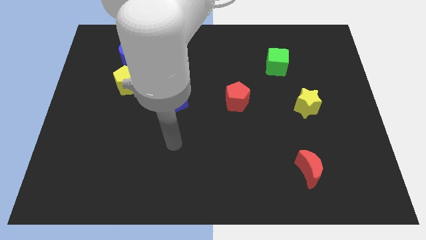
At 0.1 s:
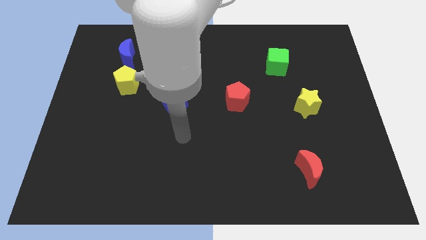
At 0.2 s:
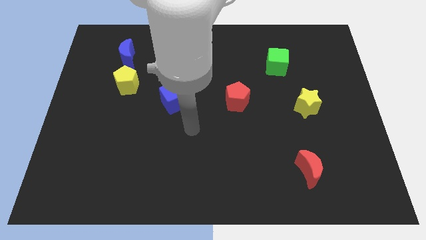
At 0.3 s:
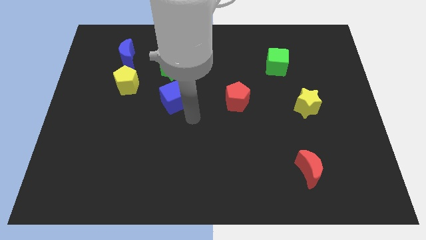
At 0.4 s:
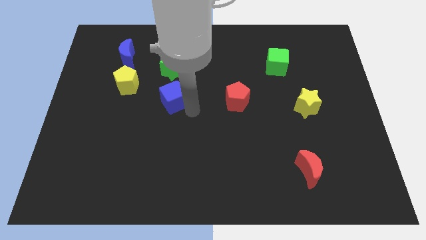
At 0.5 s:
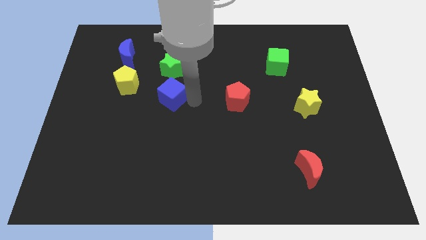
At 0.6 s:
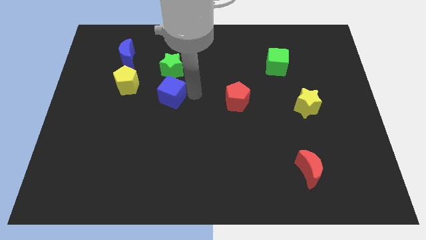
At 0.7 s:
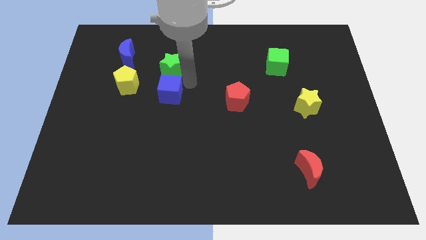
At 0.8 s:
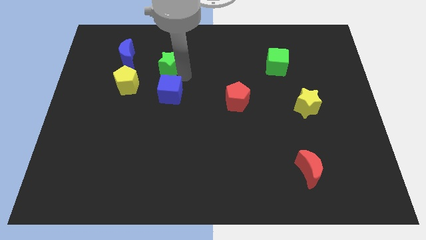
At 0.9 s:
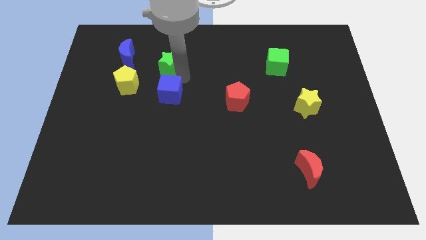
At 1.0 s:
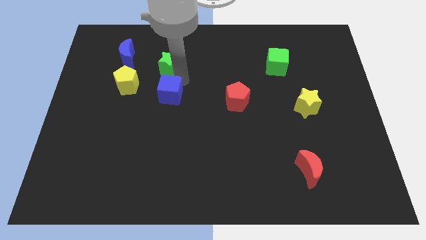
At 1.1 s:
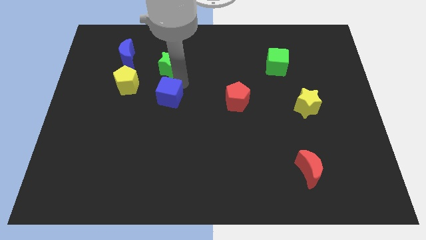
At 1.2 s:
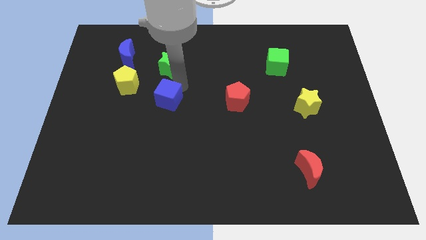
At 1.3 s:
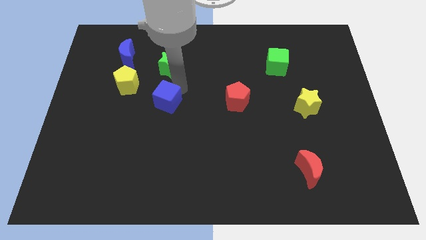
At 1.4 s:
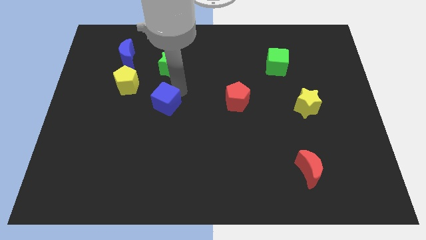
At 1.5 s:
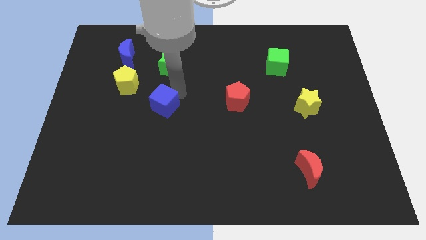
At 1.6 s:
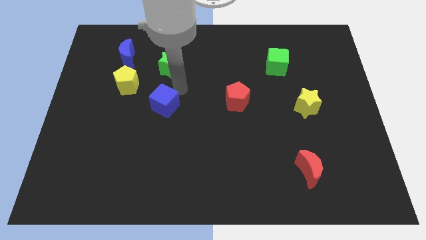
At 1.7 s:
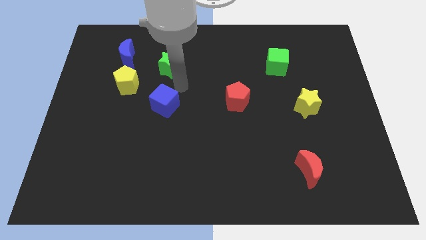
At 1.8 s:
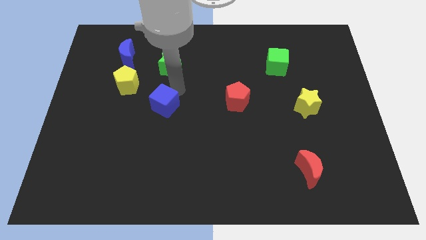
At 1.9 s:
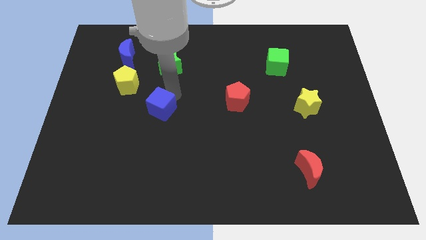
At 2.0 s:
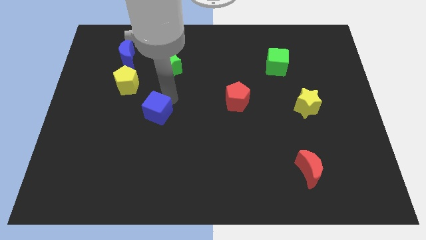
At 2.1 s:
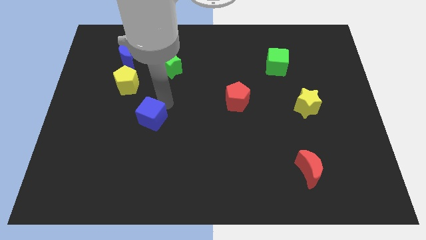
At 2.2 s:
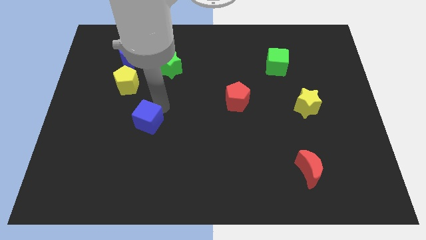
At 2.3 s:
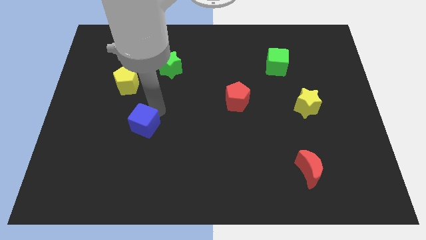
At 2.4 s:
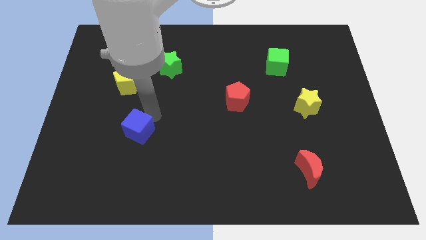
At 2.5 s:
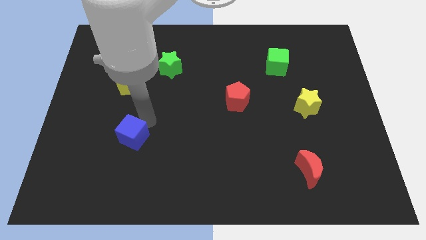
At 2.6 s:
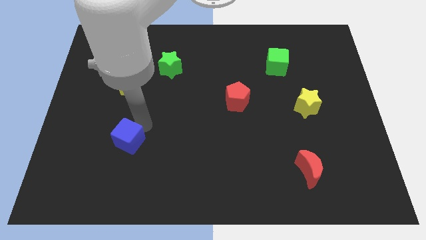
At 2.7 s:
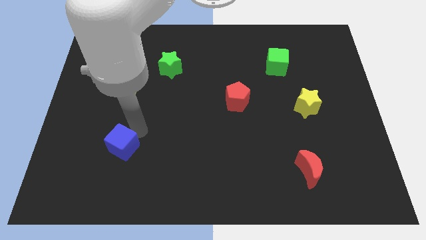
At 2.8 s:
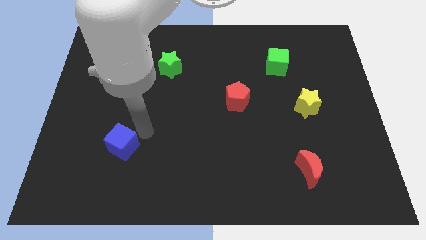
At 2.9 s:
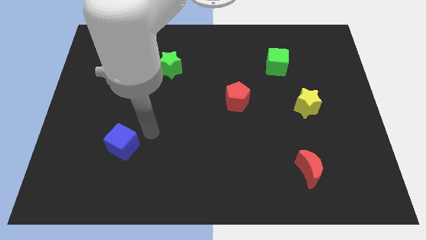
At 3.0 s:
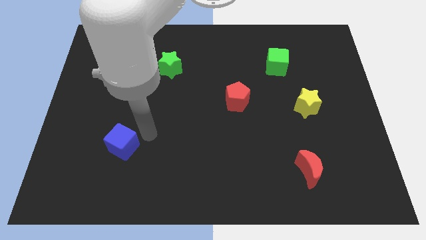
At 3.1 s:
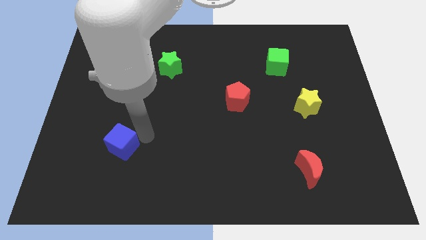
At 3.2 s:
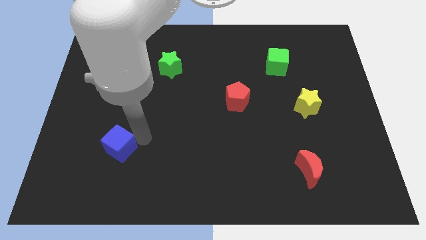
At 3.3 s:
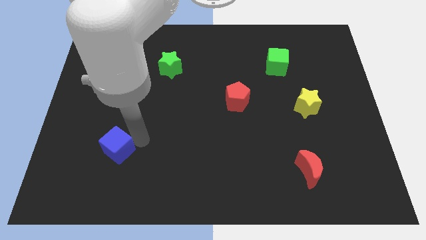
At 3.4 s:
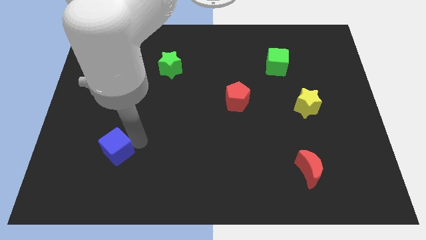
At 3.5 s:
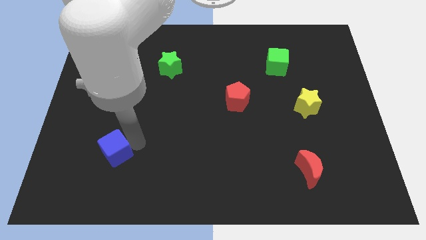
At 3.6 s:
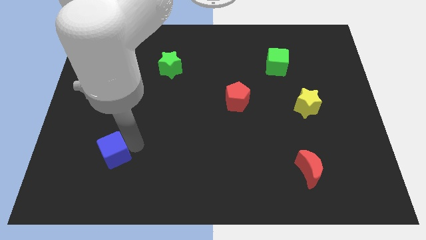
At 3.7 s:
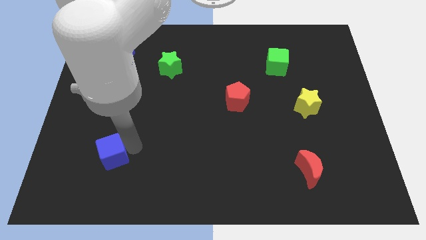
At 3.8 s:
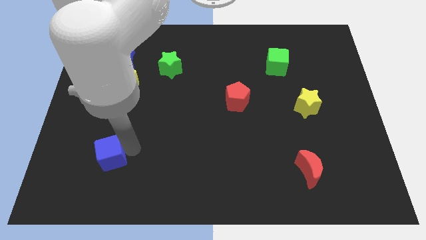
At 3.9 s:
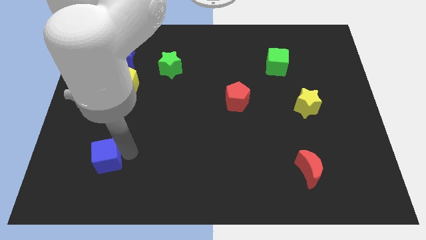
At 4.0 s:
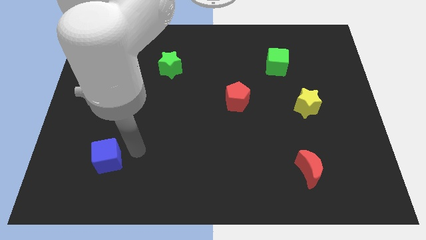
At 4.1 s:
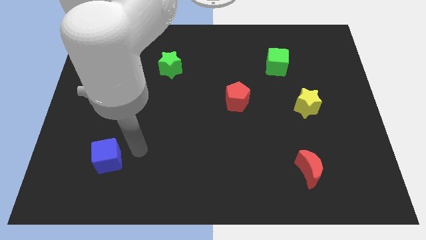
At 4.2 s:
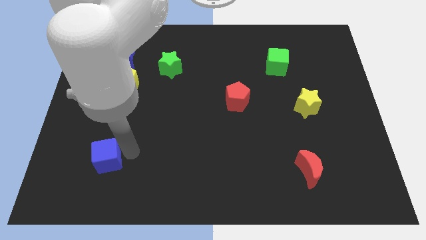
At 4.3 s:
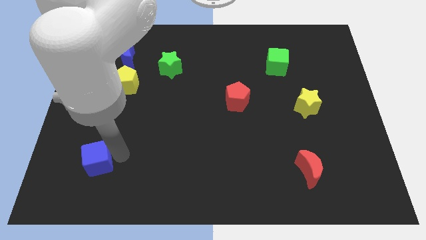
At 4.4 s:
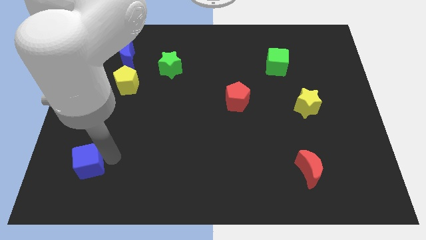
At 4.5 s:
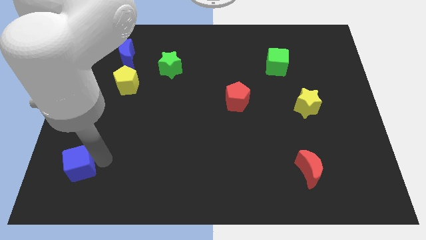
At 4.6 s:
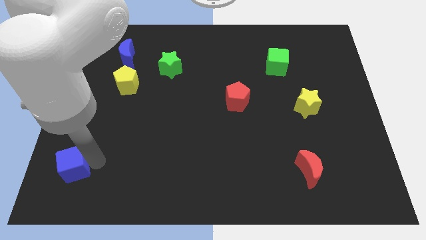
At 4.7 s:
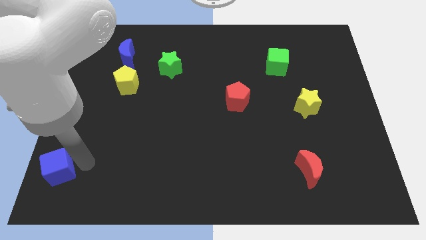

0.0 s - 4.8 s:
put the blue cube to the bottom left of the board

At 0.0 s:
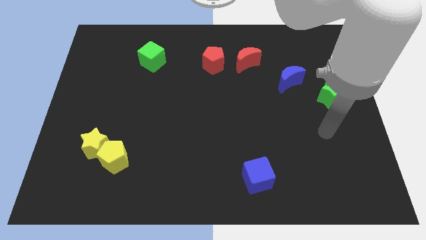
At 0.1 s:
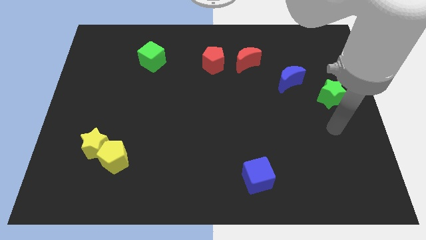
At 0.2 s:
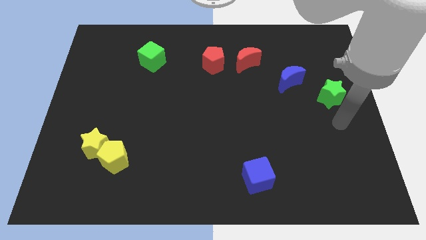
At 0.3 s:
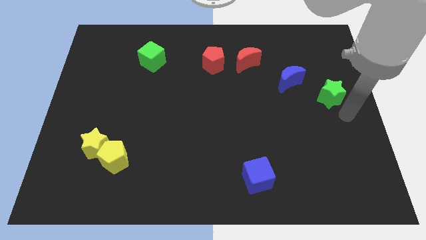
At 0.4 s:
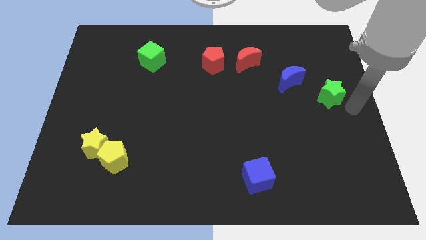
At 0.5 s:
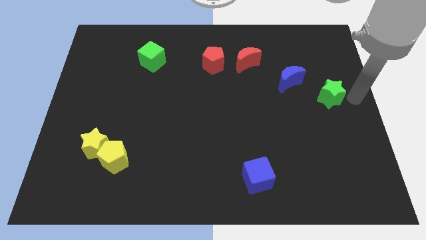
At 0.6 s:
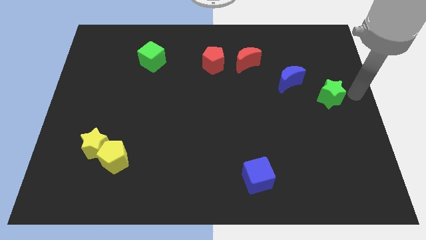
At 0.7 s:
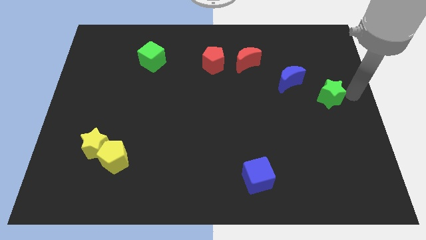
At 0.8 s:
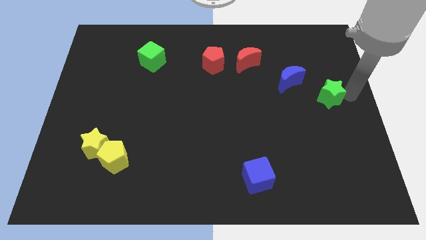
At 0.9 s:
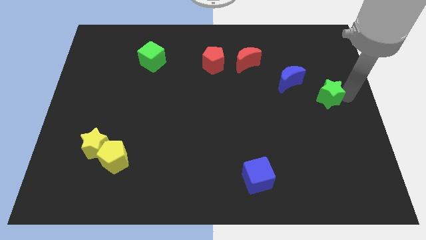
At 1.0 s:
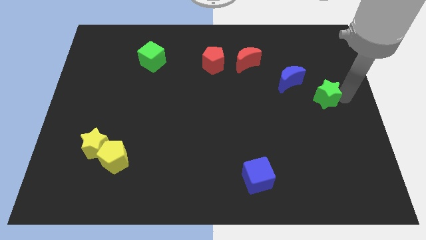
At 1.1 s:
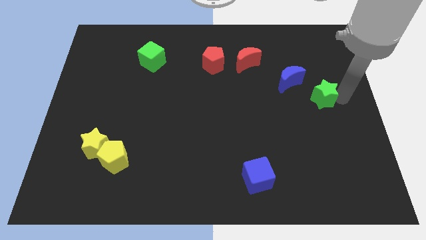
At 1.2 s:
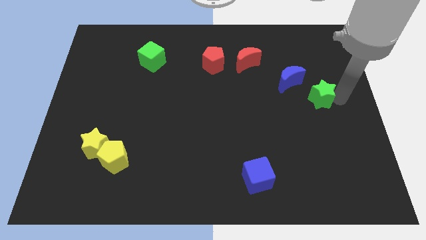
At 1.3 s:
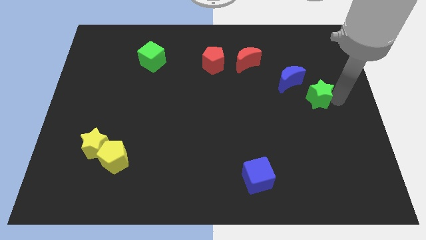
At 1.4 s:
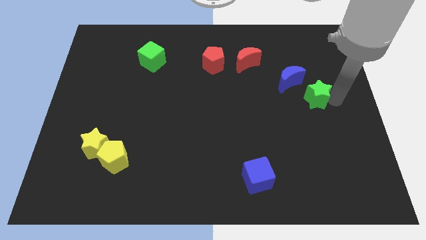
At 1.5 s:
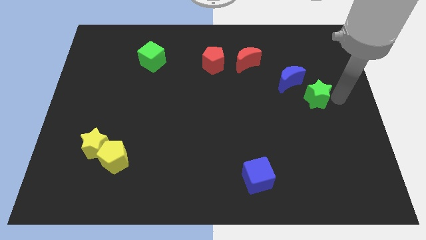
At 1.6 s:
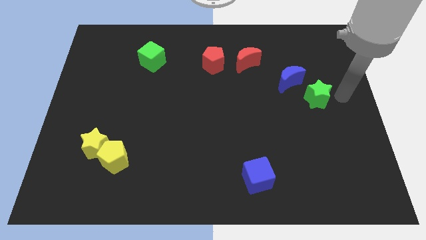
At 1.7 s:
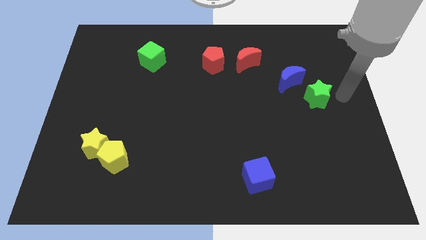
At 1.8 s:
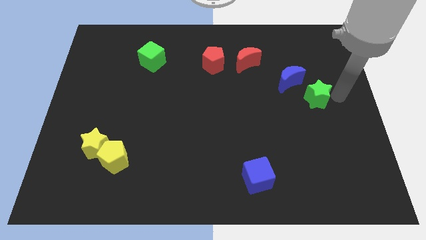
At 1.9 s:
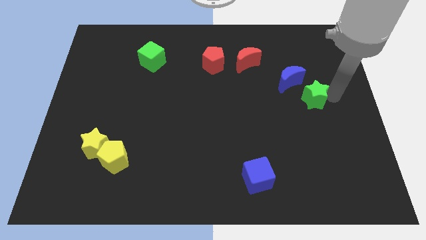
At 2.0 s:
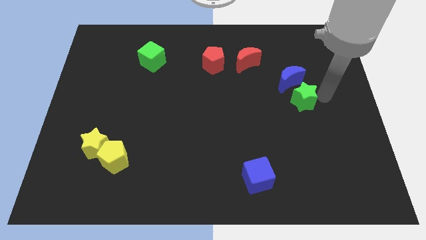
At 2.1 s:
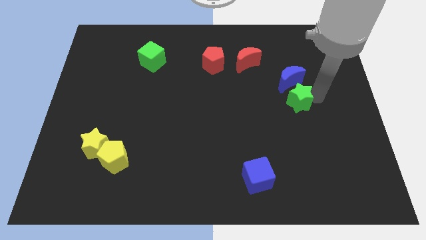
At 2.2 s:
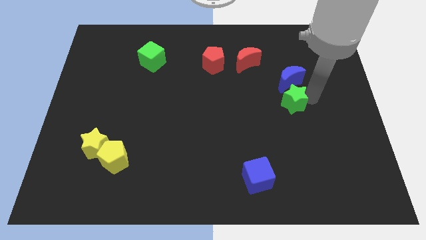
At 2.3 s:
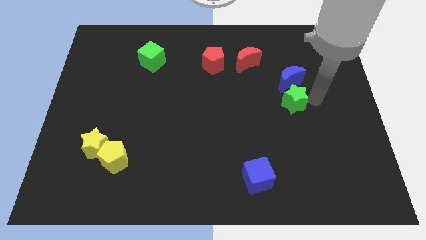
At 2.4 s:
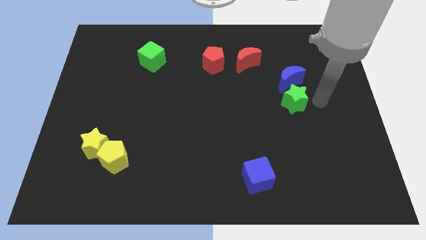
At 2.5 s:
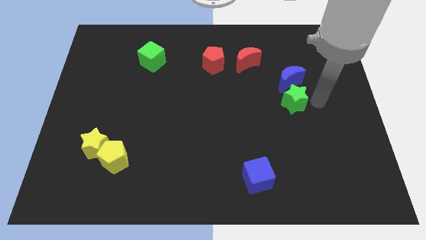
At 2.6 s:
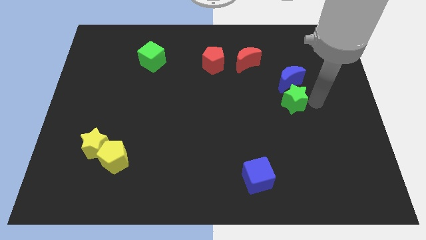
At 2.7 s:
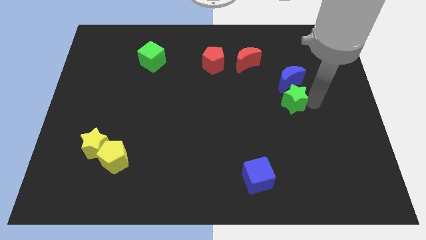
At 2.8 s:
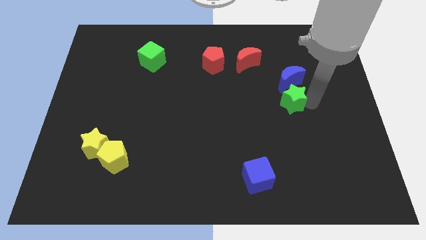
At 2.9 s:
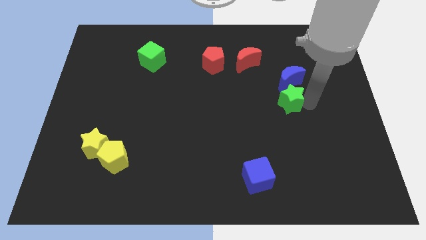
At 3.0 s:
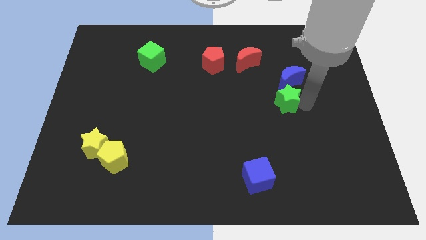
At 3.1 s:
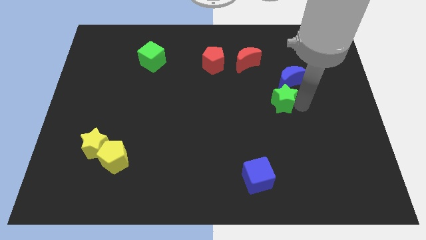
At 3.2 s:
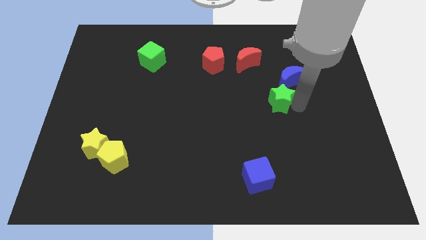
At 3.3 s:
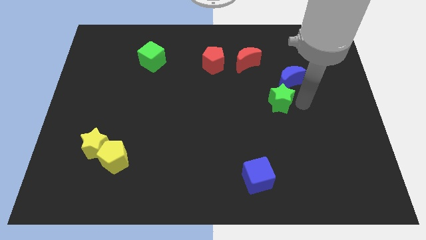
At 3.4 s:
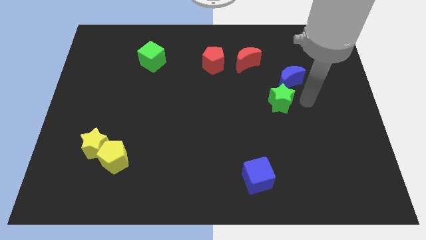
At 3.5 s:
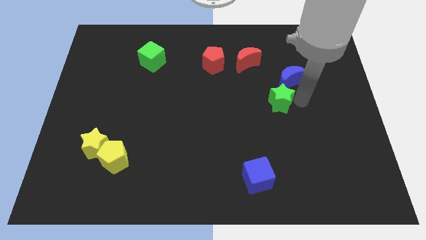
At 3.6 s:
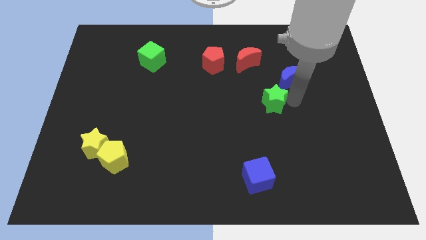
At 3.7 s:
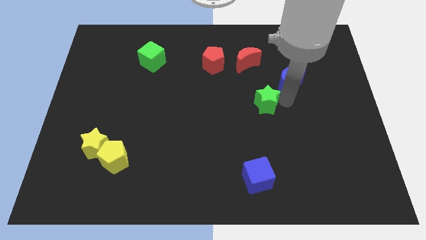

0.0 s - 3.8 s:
move the green star to the middle of the board
